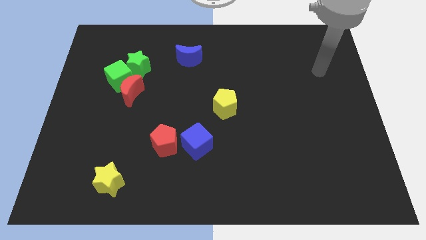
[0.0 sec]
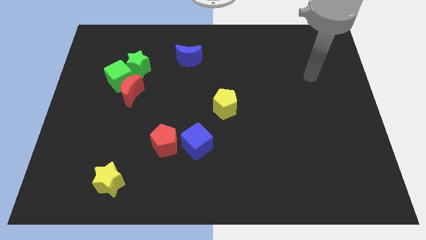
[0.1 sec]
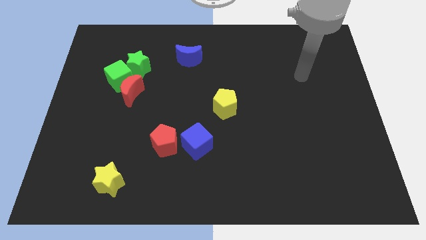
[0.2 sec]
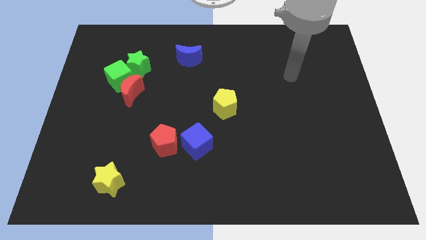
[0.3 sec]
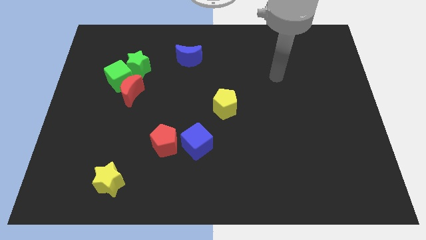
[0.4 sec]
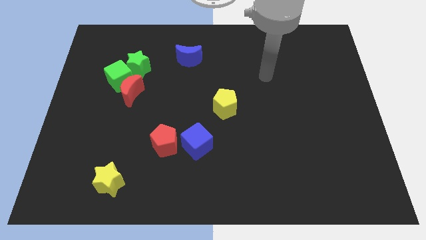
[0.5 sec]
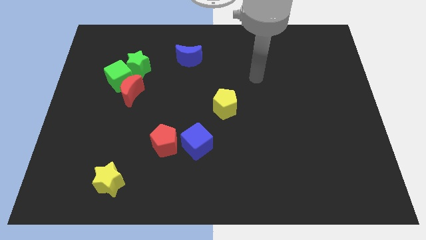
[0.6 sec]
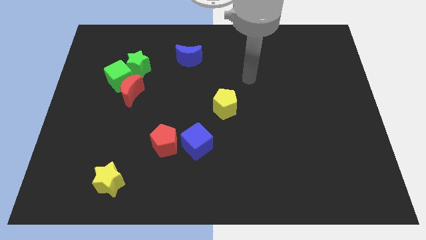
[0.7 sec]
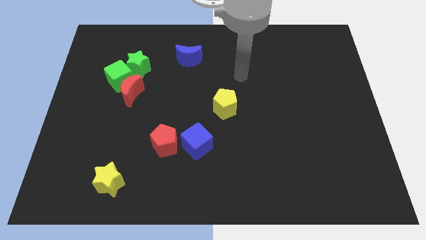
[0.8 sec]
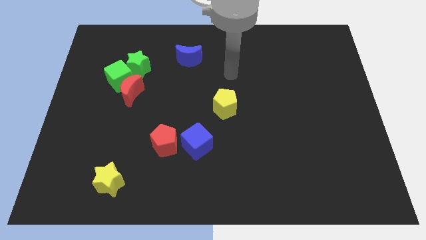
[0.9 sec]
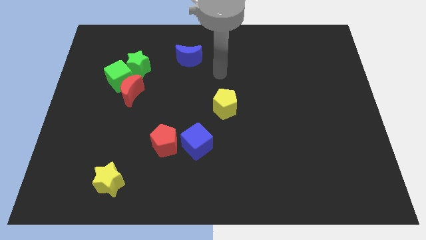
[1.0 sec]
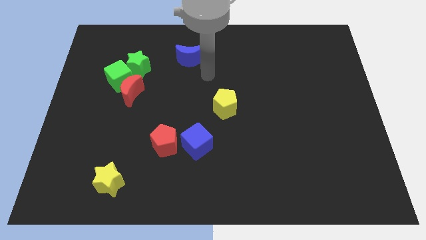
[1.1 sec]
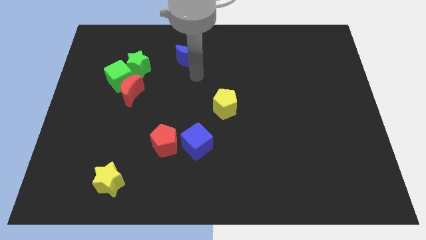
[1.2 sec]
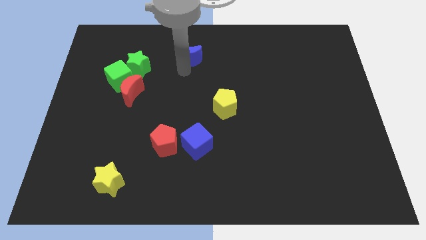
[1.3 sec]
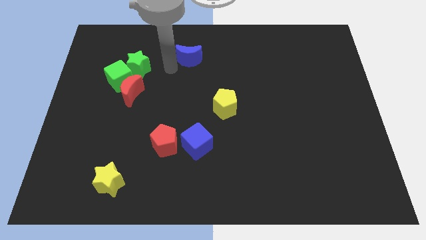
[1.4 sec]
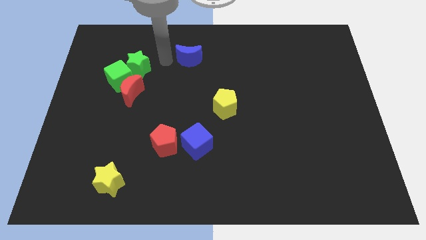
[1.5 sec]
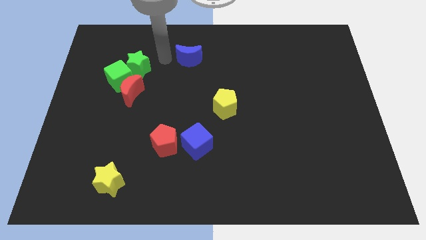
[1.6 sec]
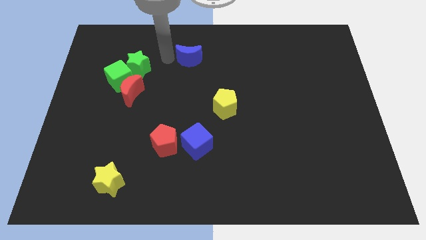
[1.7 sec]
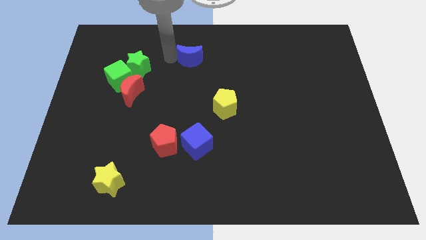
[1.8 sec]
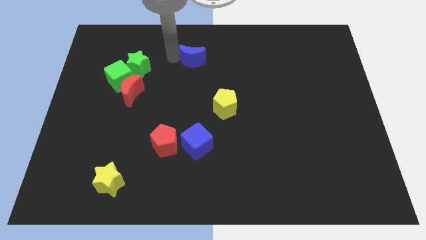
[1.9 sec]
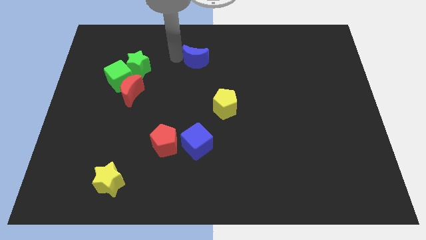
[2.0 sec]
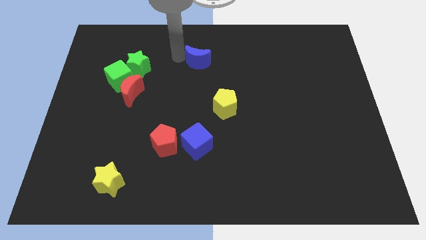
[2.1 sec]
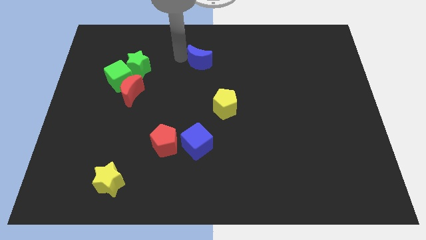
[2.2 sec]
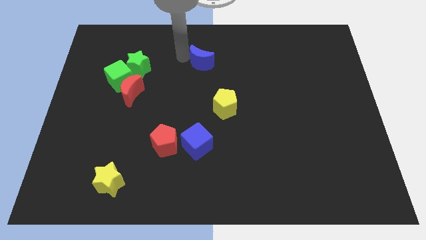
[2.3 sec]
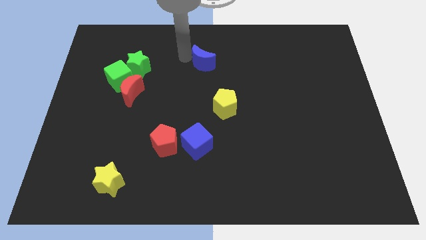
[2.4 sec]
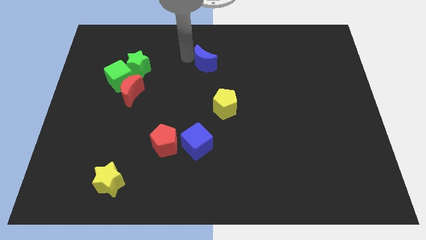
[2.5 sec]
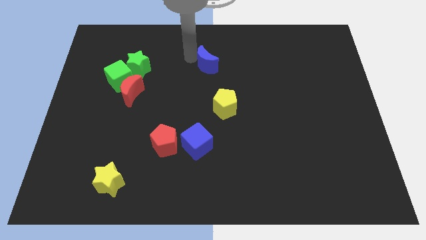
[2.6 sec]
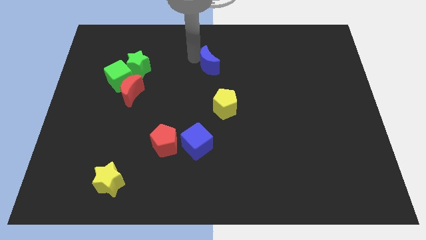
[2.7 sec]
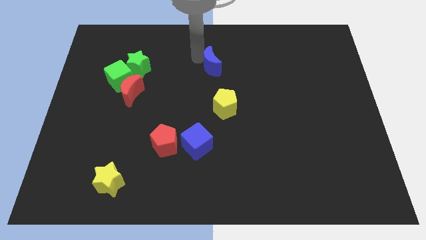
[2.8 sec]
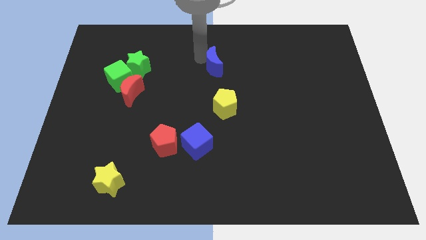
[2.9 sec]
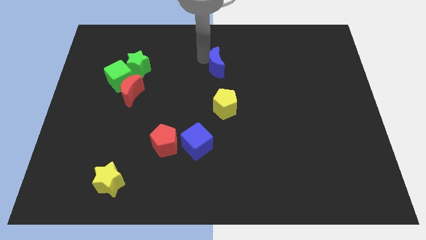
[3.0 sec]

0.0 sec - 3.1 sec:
slide the blue moon to the right a little bit

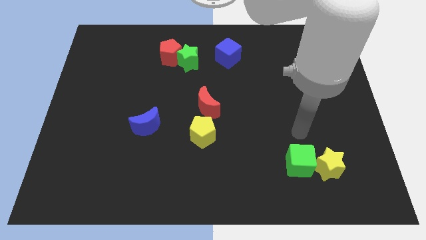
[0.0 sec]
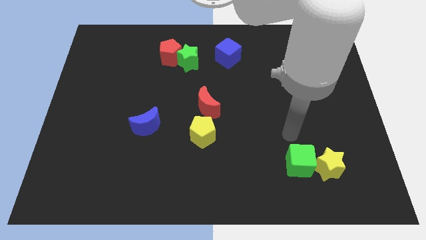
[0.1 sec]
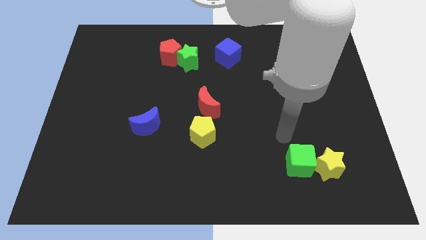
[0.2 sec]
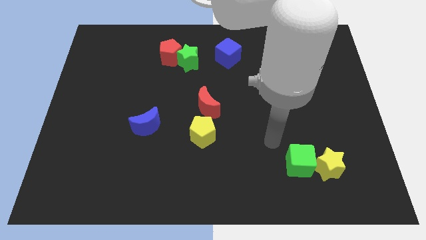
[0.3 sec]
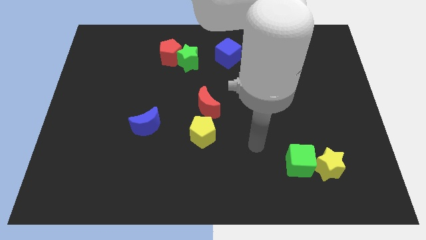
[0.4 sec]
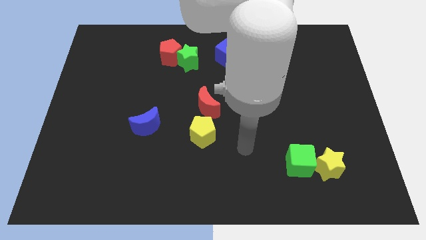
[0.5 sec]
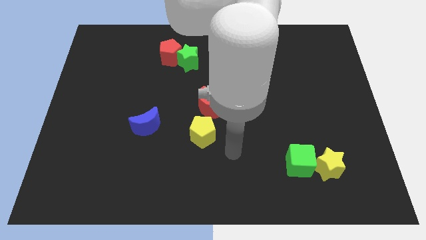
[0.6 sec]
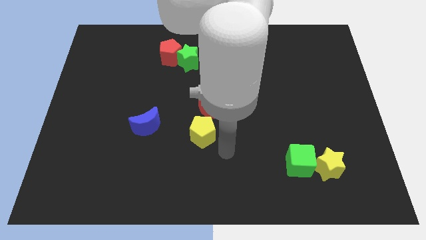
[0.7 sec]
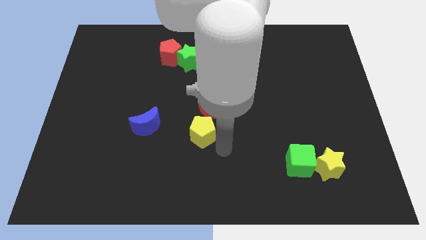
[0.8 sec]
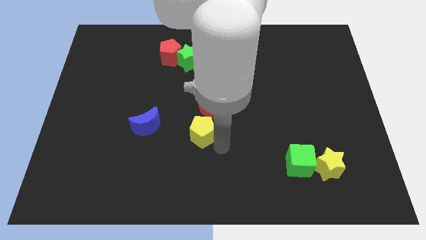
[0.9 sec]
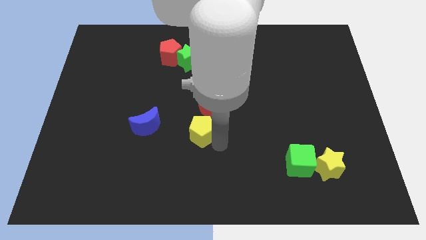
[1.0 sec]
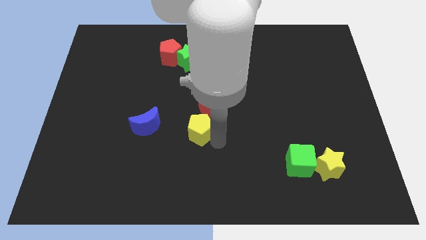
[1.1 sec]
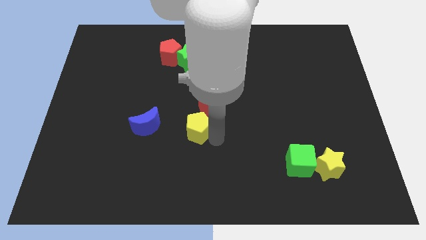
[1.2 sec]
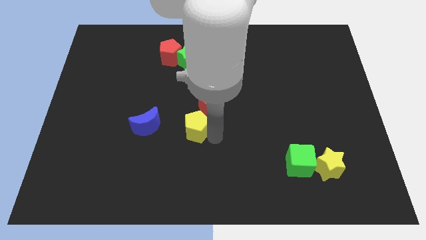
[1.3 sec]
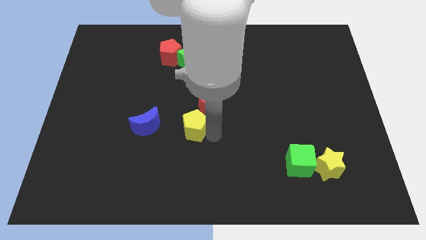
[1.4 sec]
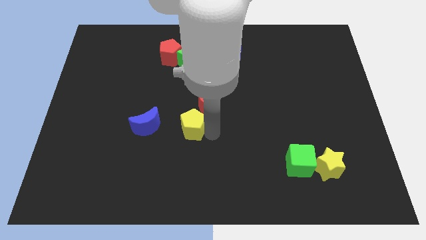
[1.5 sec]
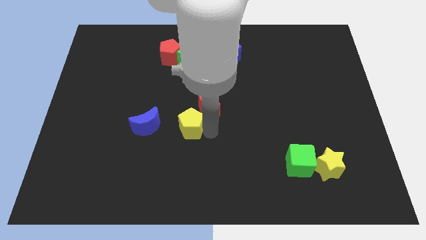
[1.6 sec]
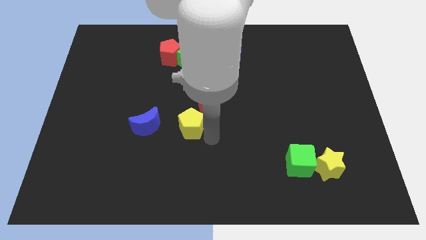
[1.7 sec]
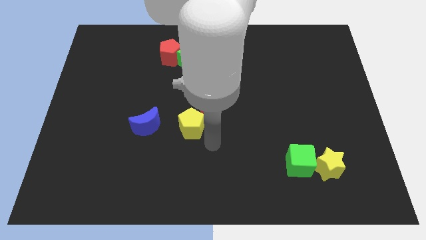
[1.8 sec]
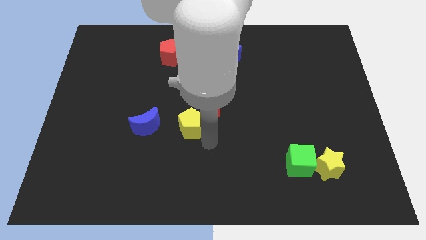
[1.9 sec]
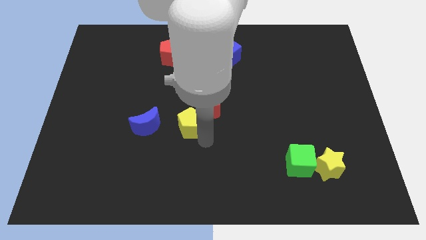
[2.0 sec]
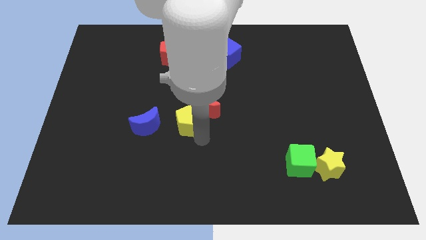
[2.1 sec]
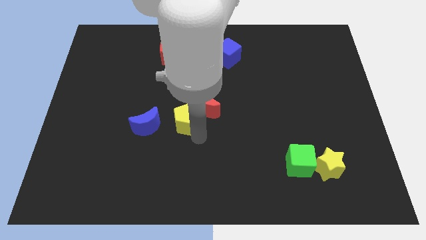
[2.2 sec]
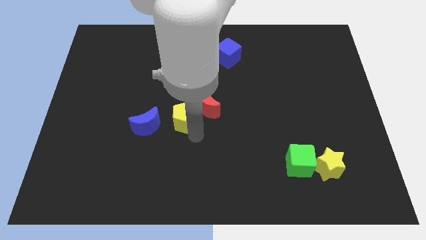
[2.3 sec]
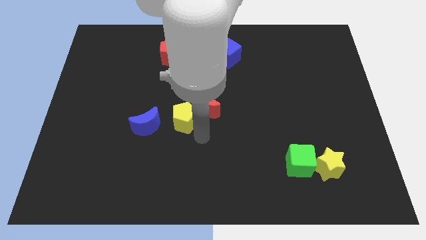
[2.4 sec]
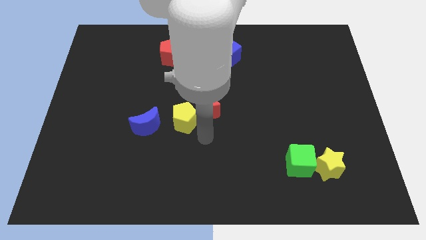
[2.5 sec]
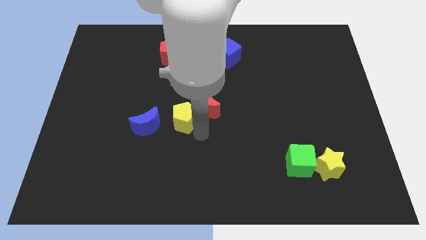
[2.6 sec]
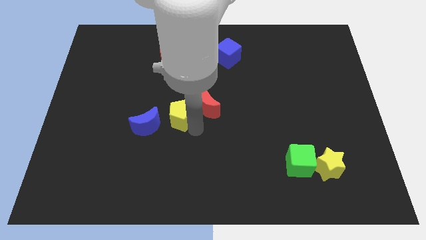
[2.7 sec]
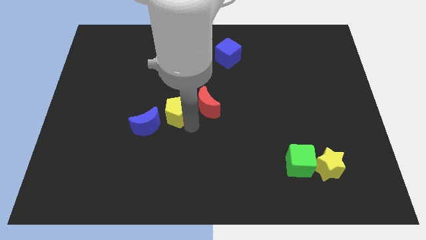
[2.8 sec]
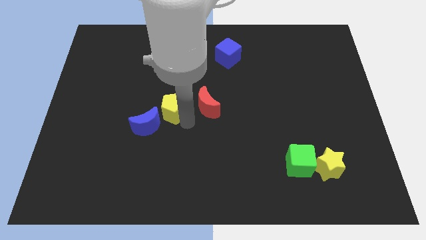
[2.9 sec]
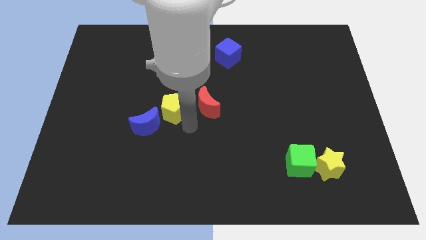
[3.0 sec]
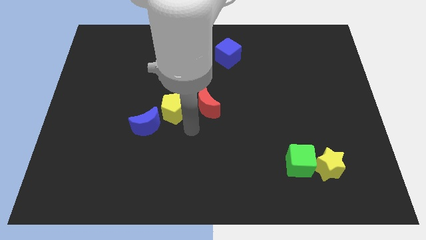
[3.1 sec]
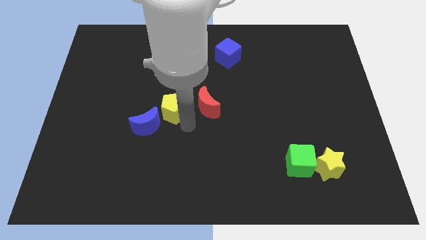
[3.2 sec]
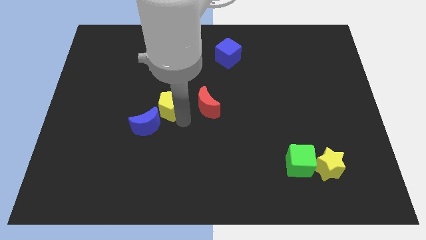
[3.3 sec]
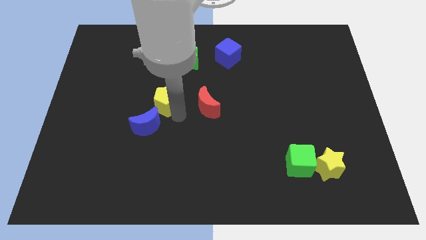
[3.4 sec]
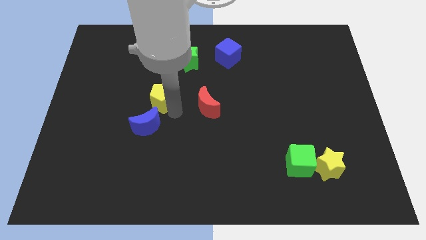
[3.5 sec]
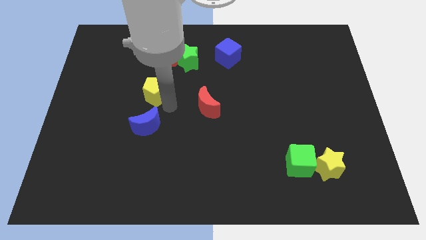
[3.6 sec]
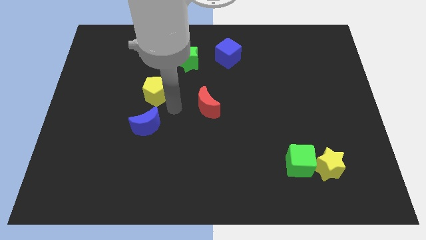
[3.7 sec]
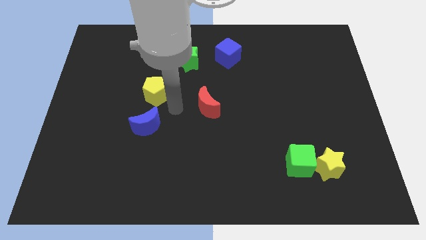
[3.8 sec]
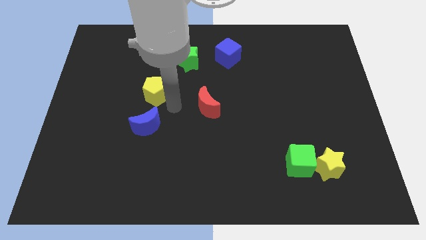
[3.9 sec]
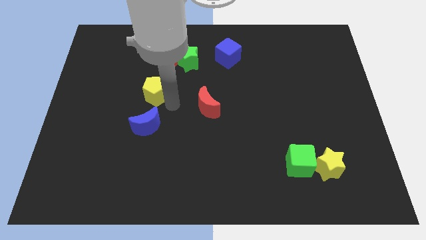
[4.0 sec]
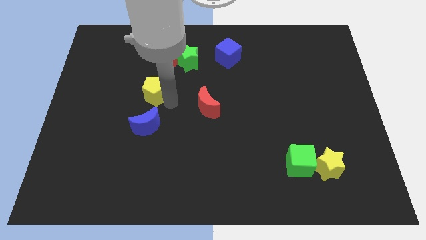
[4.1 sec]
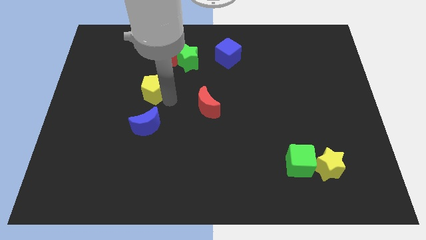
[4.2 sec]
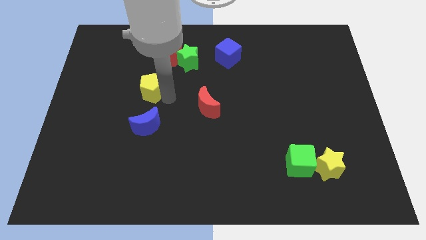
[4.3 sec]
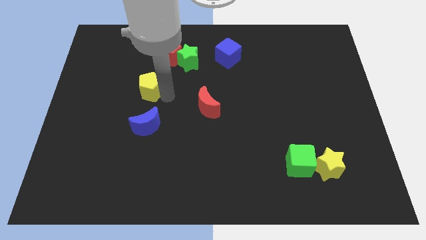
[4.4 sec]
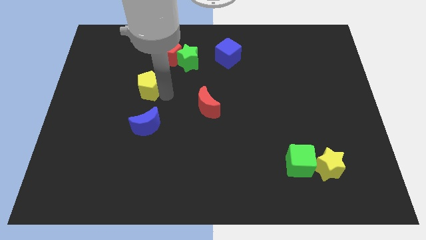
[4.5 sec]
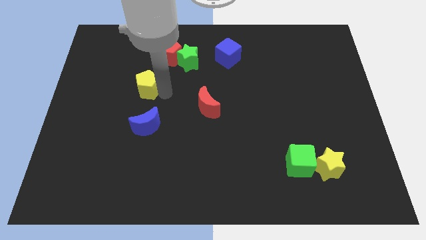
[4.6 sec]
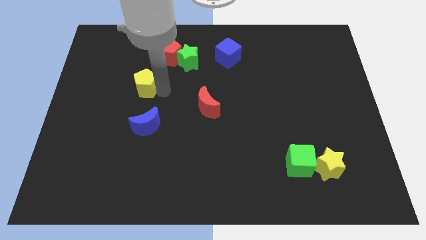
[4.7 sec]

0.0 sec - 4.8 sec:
slide the yellow pentagon up and left diagonally
